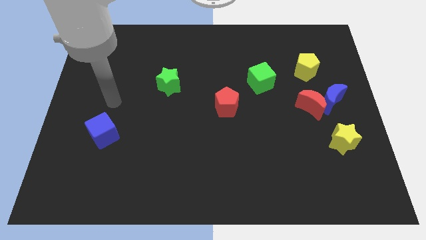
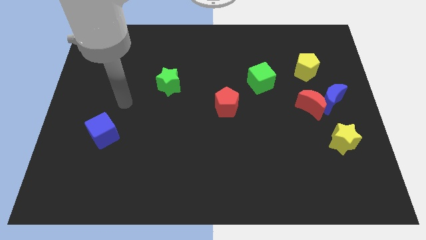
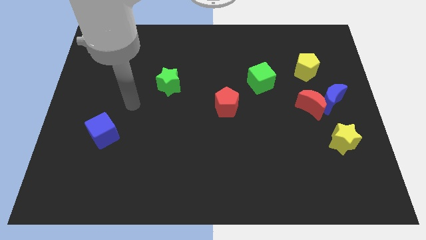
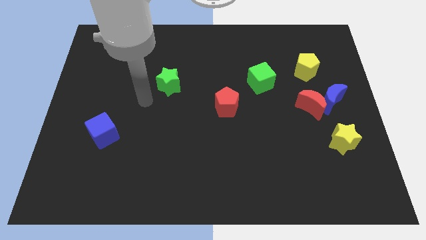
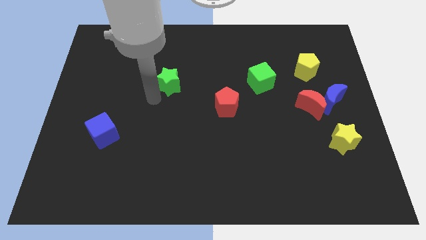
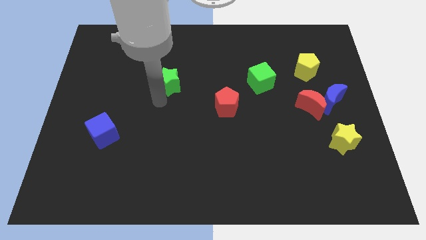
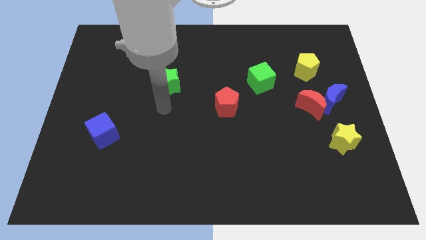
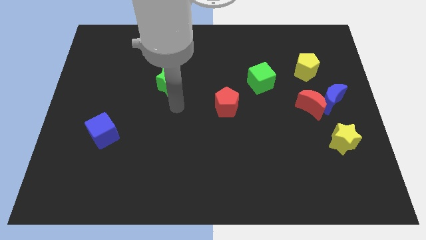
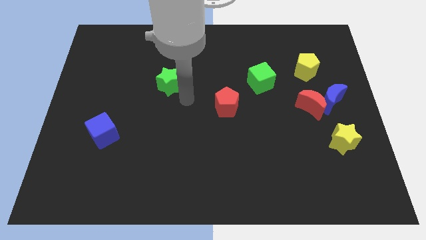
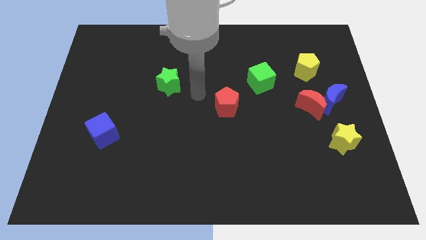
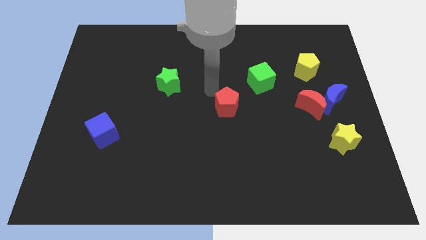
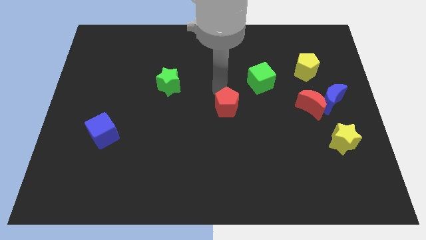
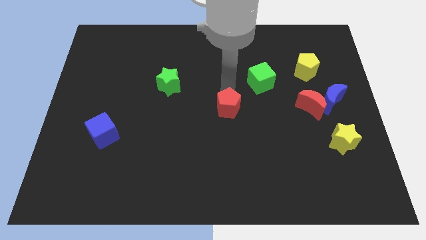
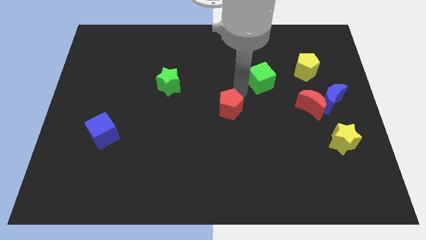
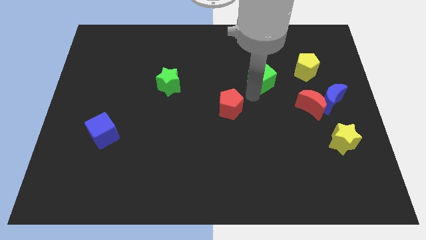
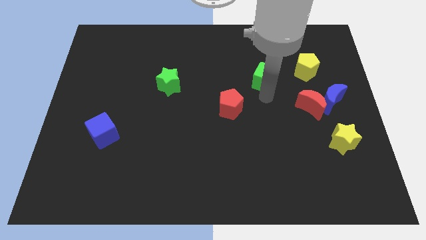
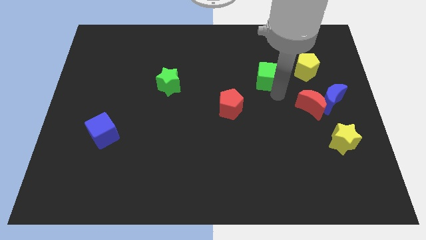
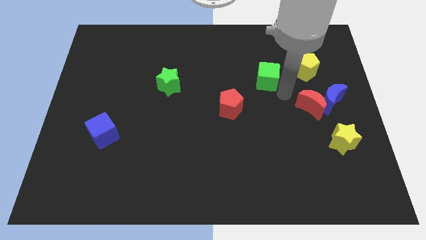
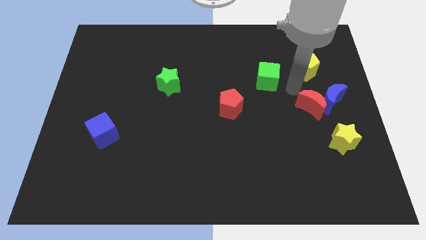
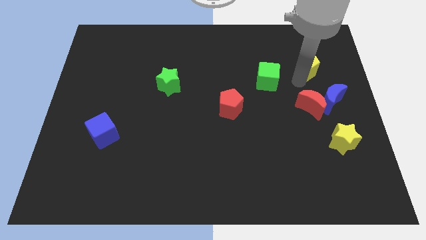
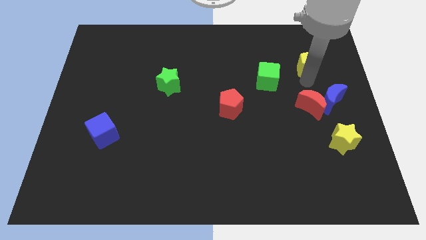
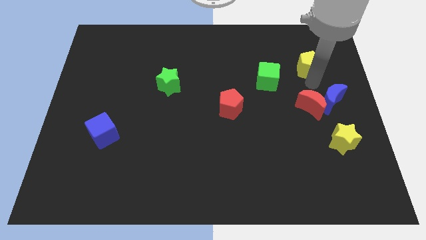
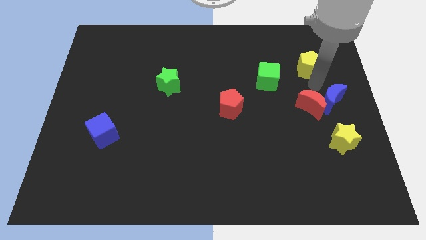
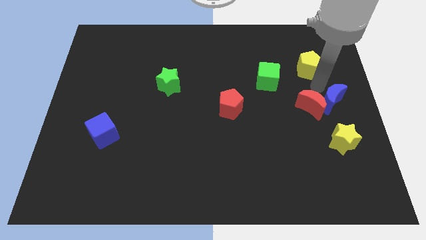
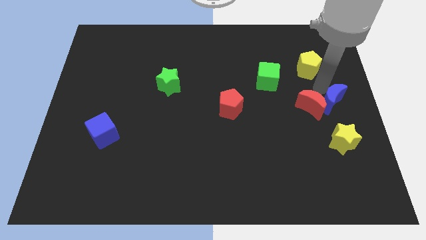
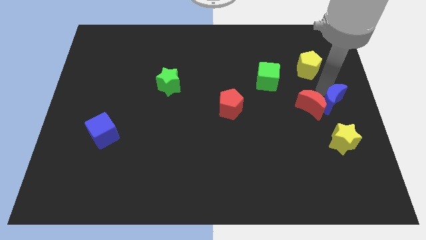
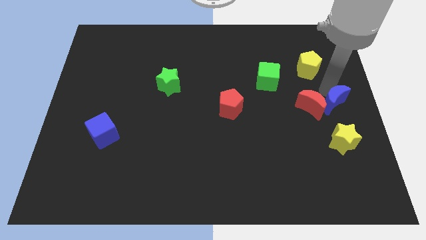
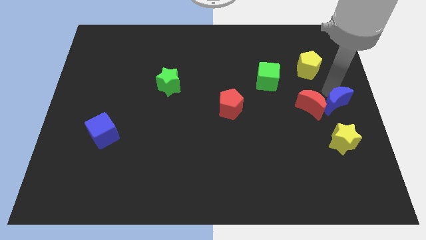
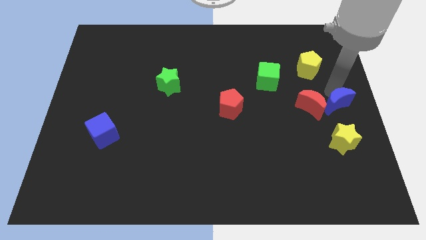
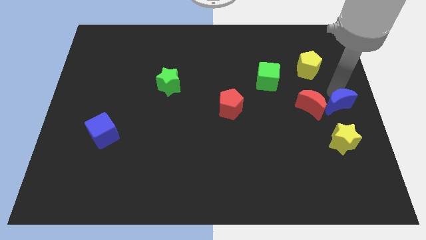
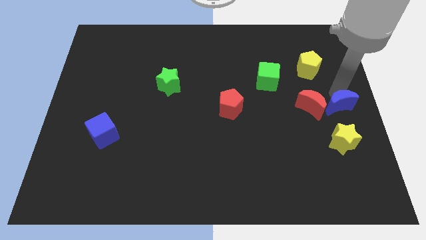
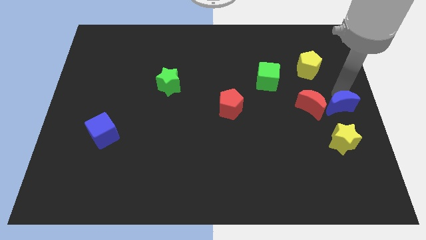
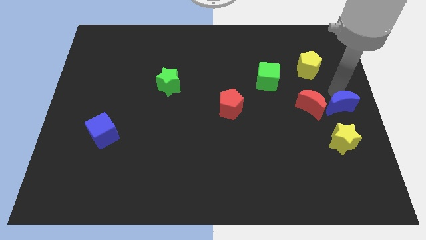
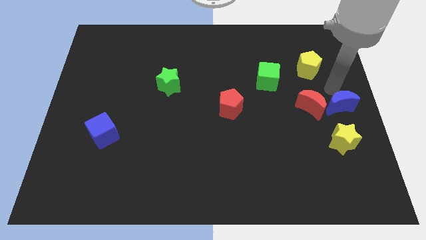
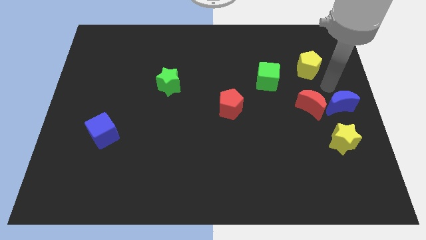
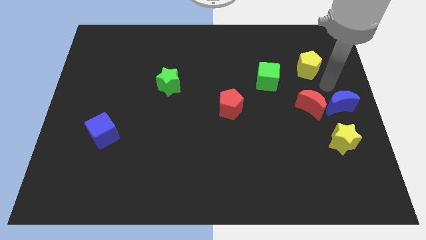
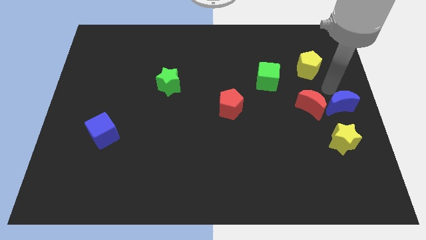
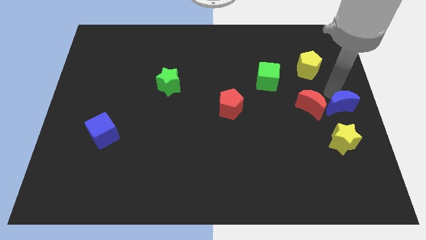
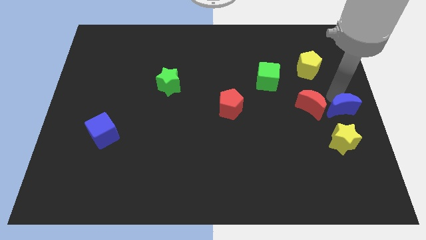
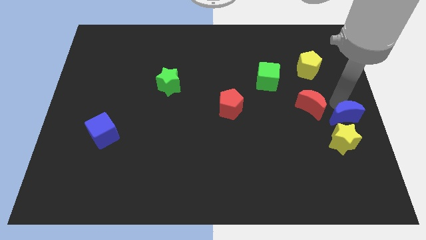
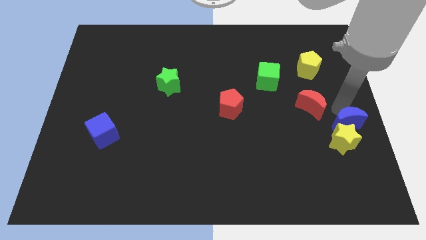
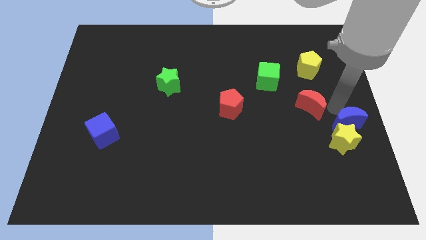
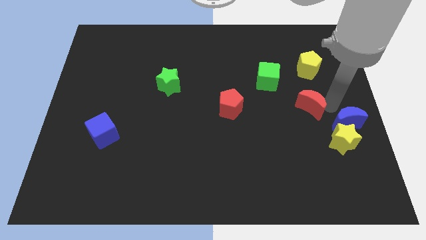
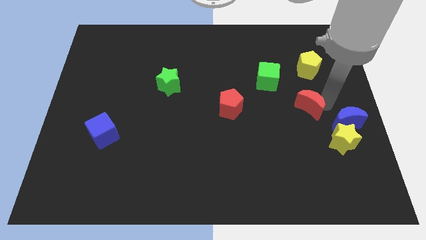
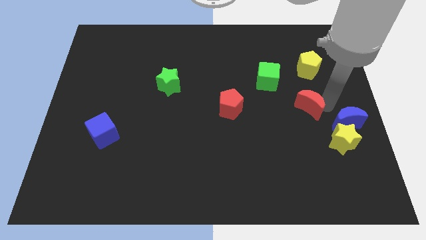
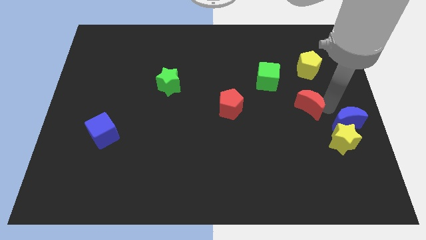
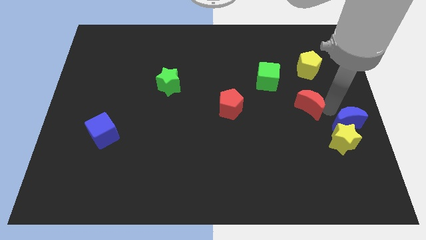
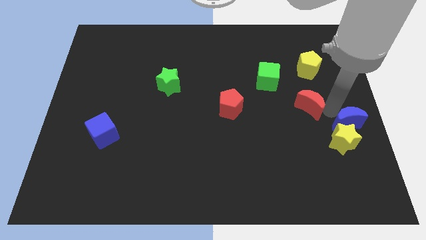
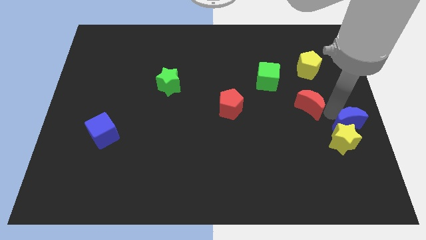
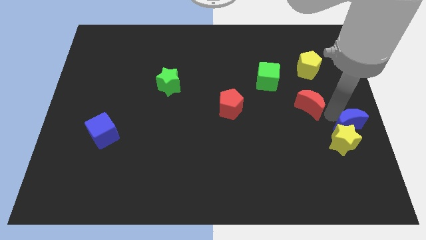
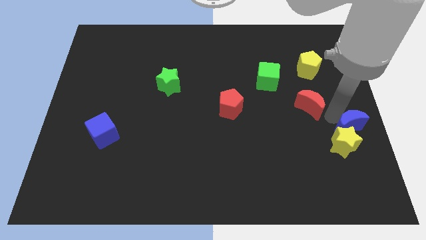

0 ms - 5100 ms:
slightly move the blue moon down

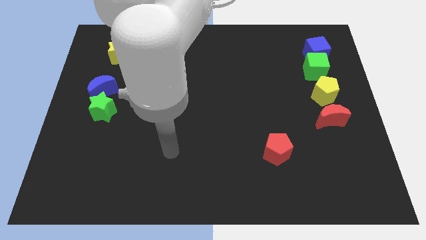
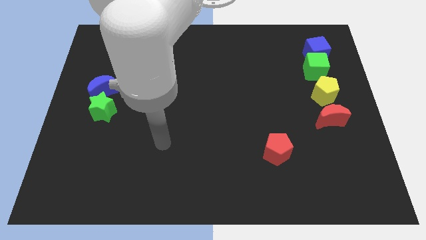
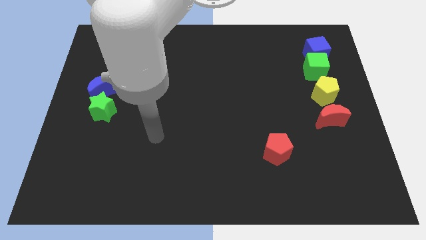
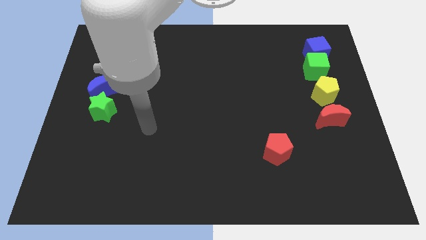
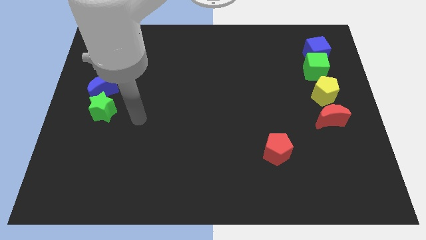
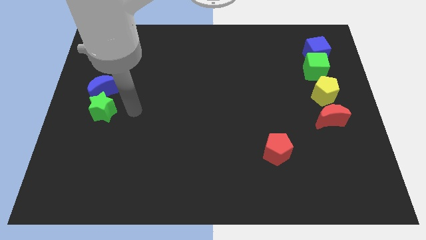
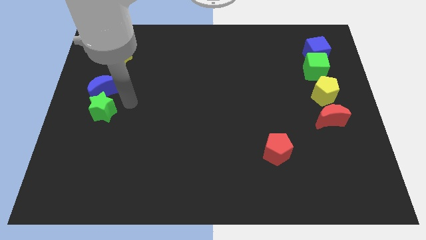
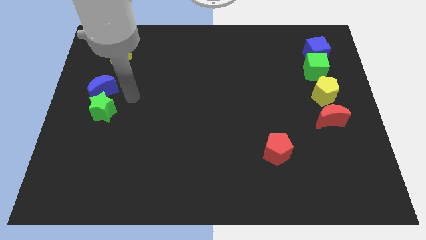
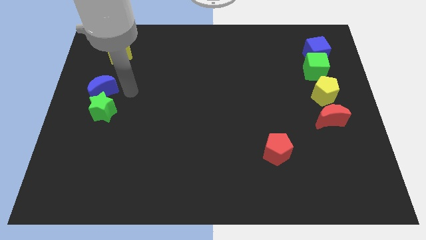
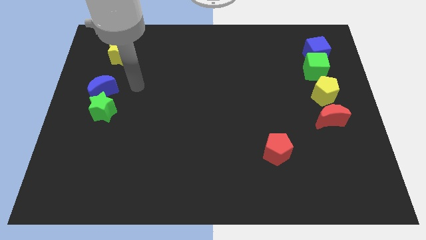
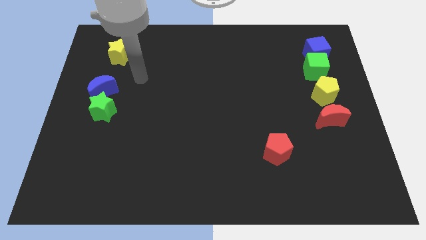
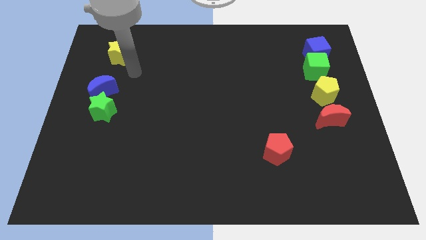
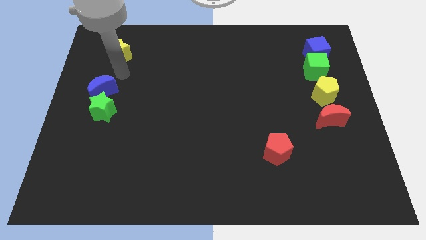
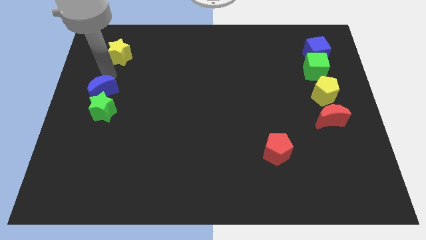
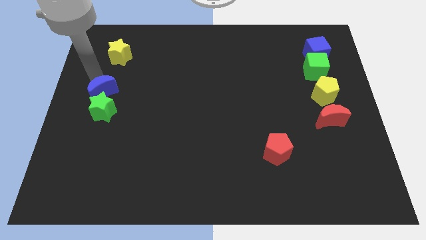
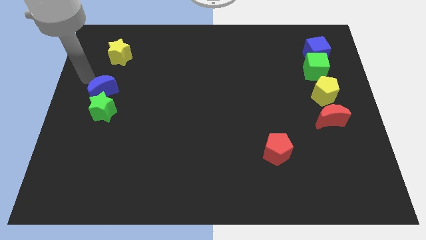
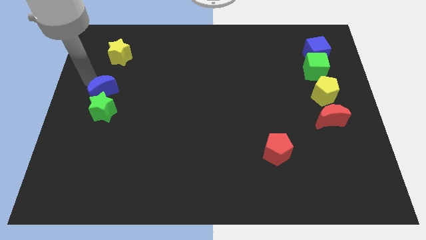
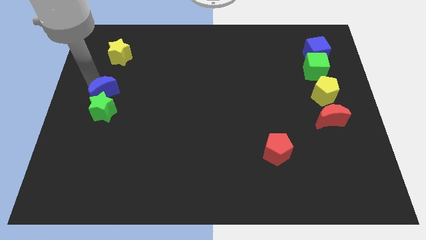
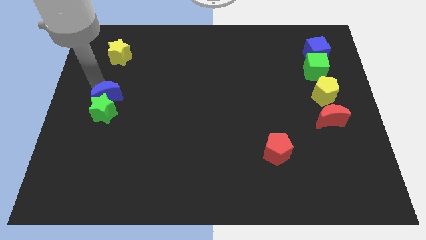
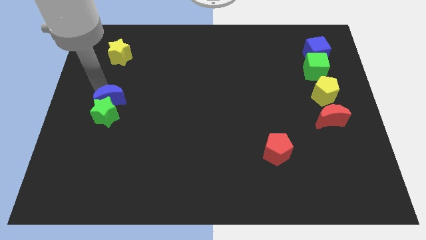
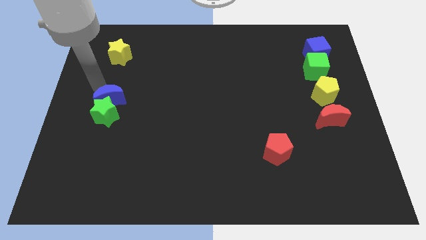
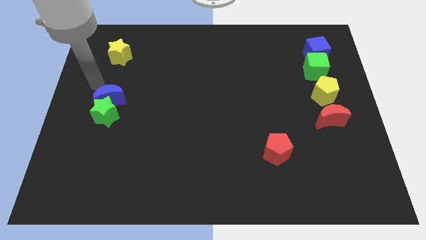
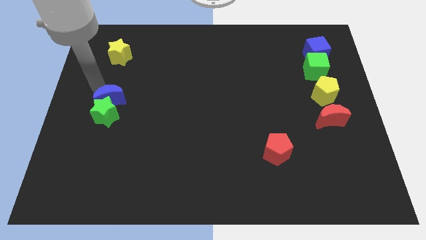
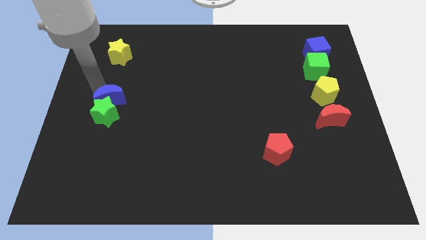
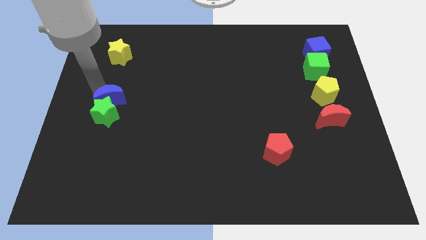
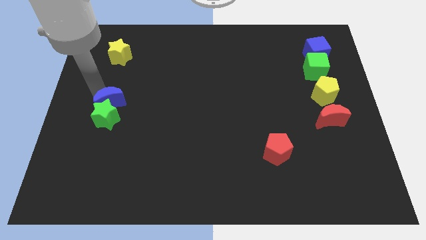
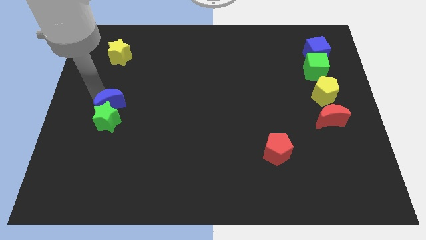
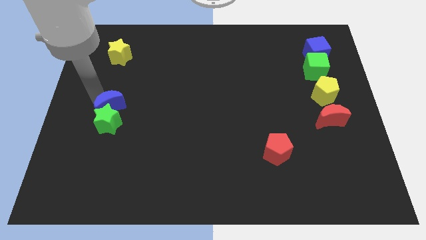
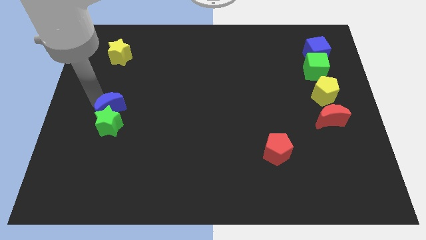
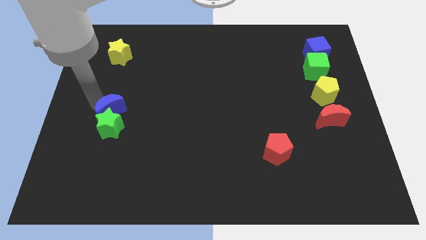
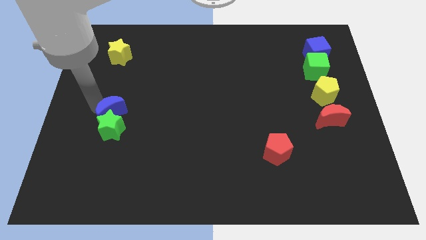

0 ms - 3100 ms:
slightly push the blue moon down and to the right
